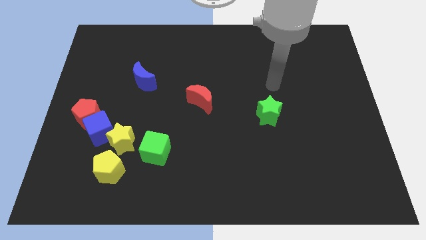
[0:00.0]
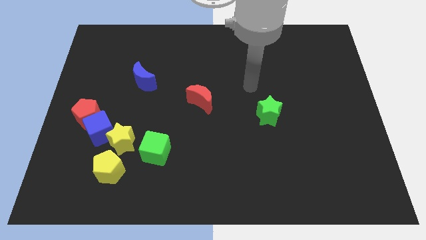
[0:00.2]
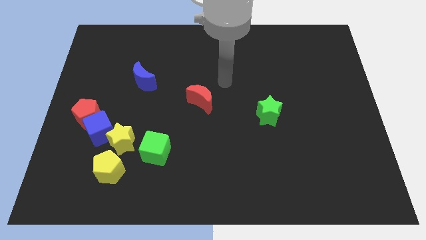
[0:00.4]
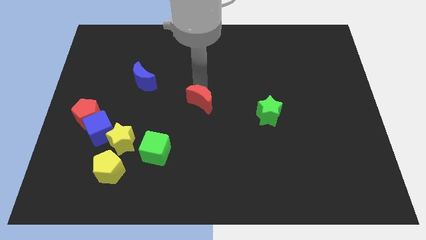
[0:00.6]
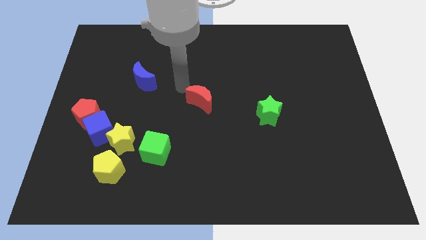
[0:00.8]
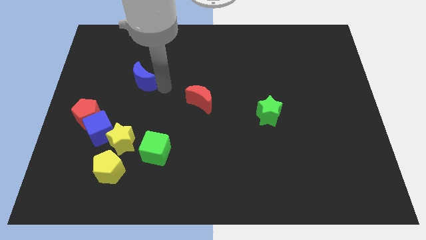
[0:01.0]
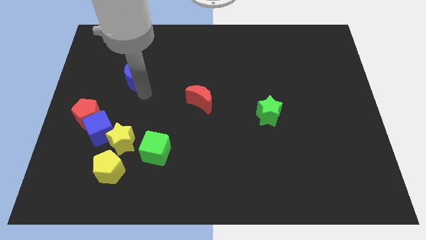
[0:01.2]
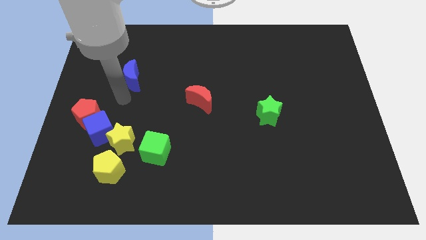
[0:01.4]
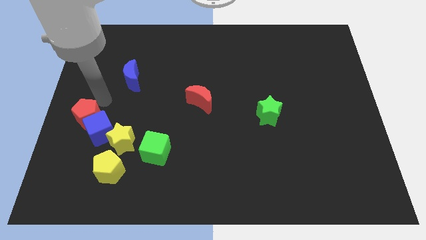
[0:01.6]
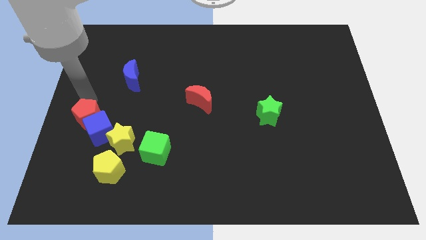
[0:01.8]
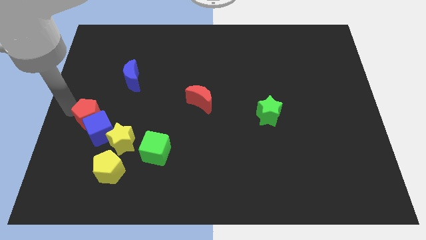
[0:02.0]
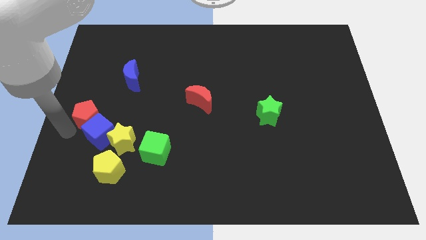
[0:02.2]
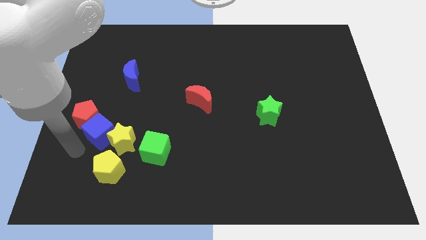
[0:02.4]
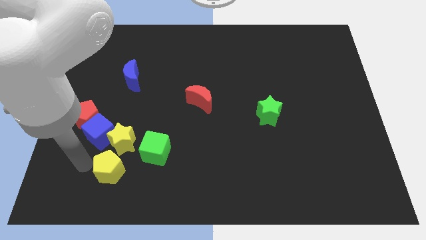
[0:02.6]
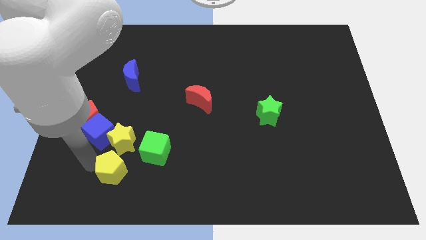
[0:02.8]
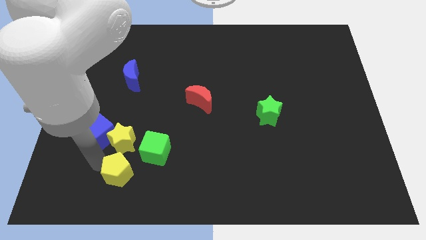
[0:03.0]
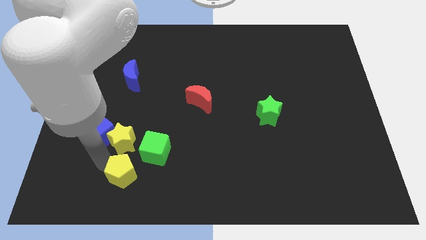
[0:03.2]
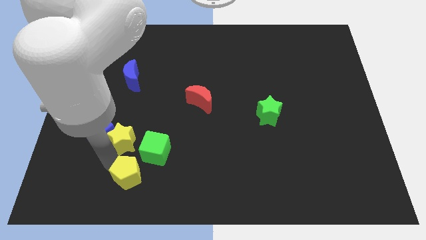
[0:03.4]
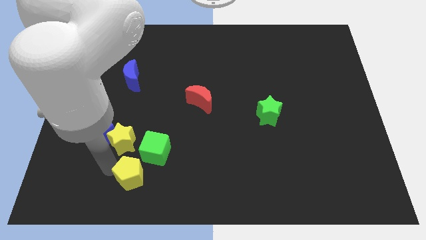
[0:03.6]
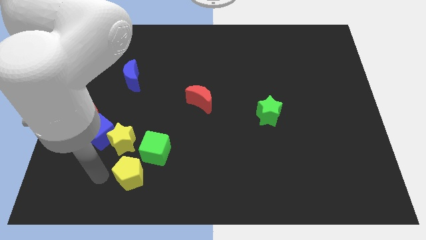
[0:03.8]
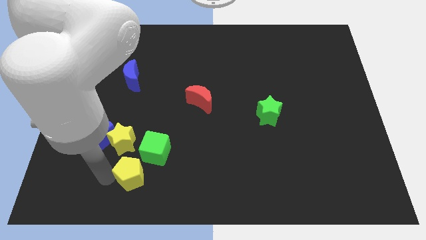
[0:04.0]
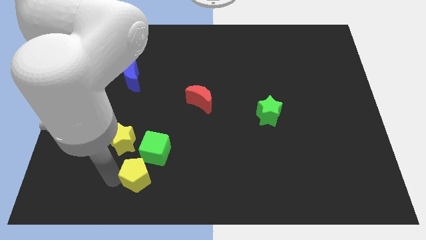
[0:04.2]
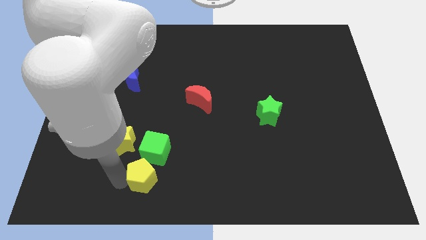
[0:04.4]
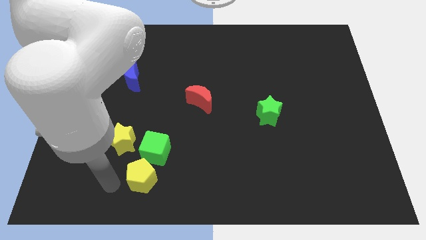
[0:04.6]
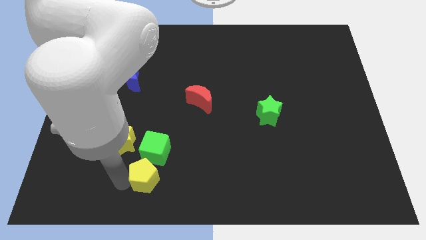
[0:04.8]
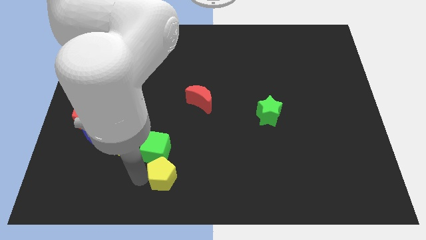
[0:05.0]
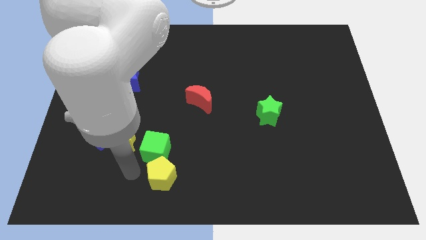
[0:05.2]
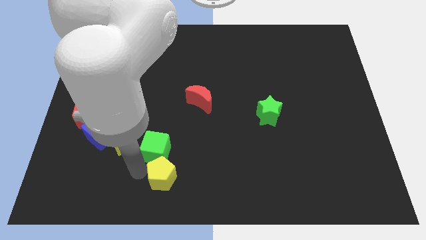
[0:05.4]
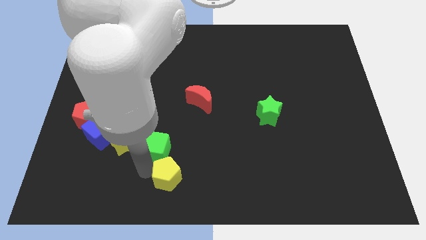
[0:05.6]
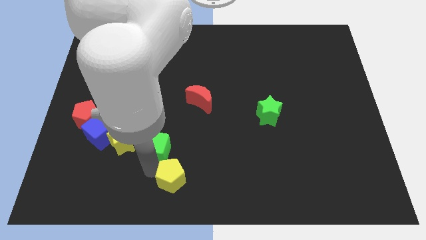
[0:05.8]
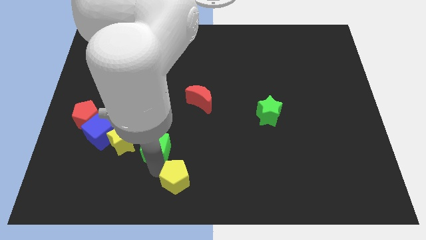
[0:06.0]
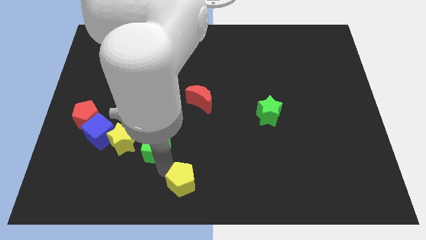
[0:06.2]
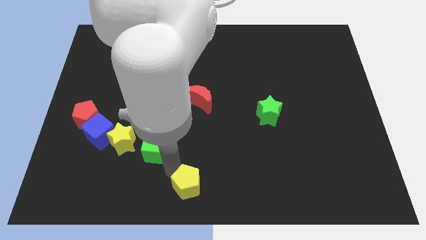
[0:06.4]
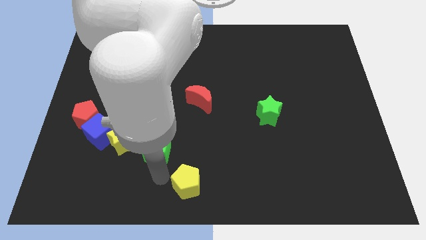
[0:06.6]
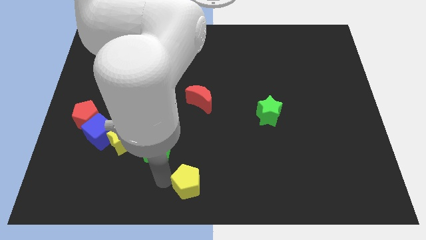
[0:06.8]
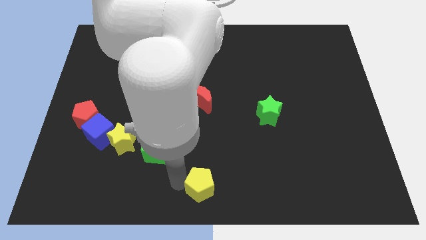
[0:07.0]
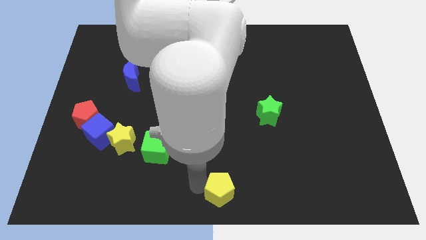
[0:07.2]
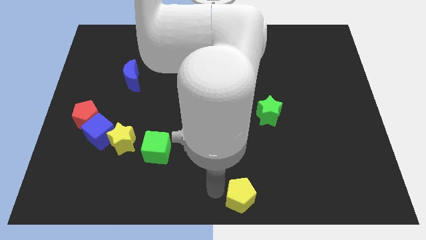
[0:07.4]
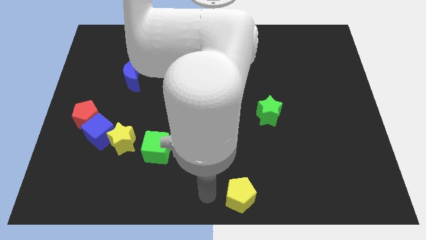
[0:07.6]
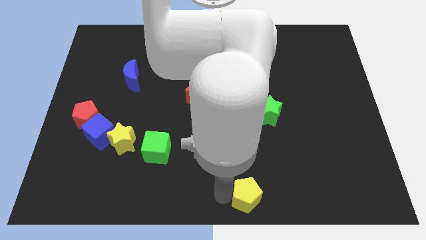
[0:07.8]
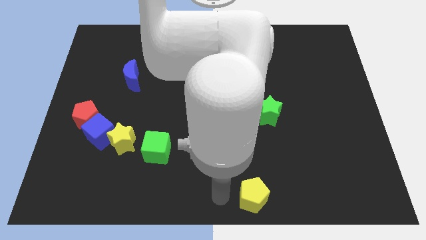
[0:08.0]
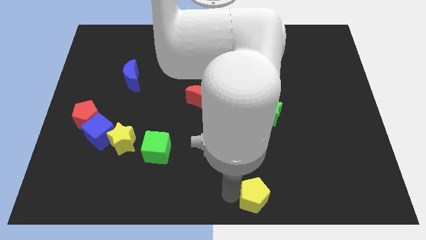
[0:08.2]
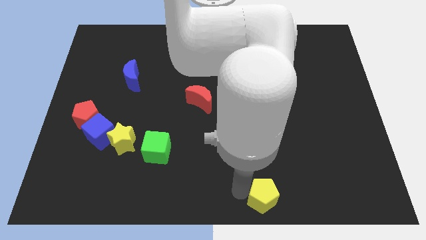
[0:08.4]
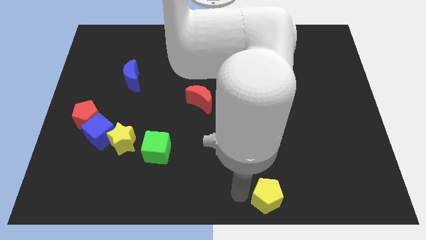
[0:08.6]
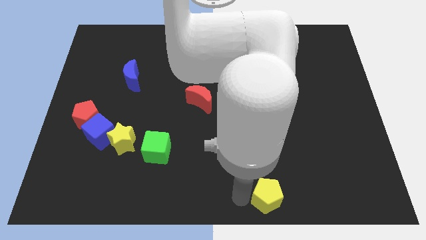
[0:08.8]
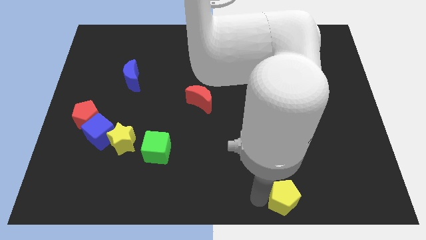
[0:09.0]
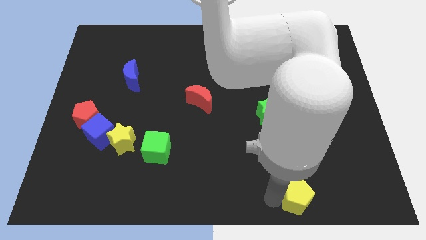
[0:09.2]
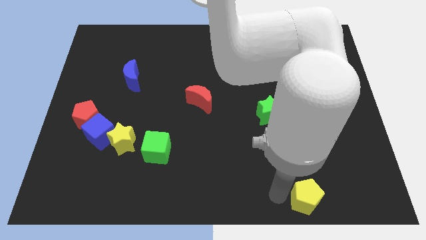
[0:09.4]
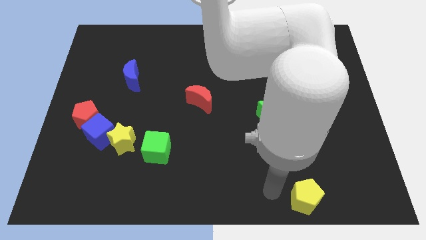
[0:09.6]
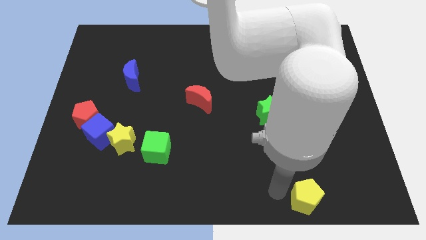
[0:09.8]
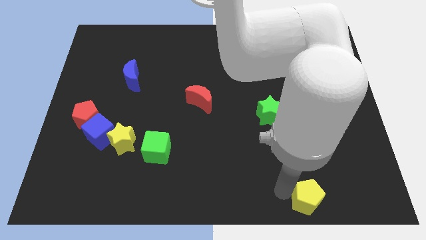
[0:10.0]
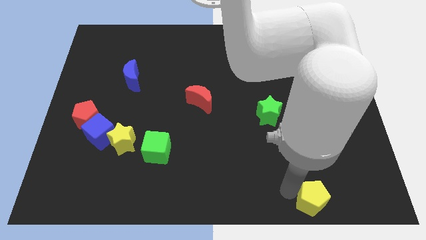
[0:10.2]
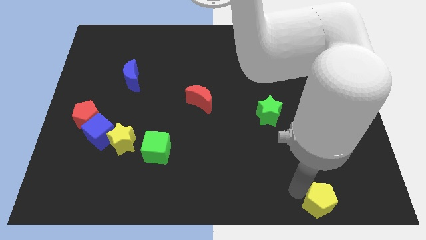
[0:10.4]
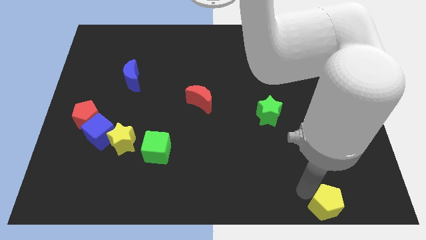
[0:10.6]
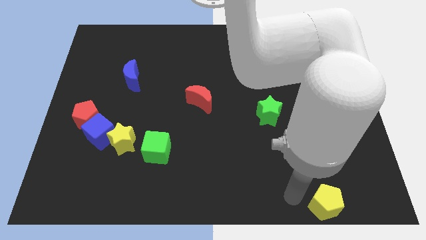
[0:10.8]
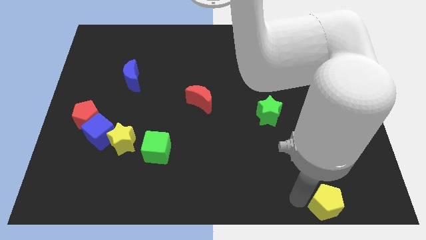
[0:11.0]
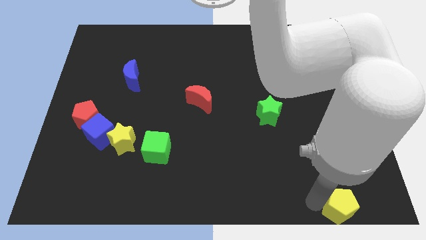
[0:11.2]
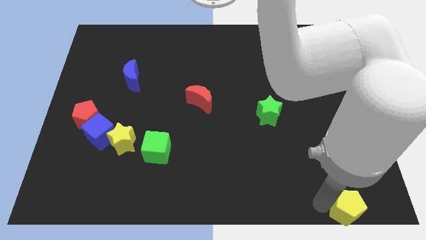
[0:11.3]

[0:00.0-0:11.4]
push the yellow pentagon to the bottom right corner

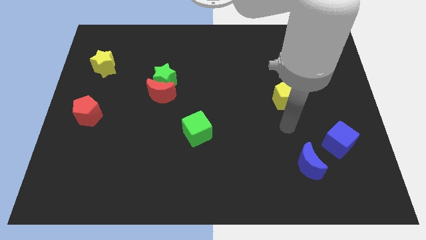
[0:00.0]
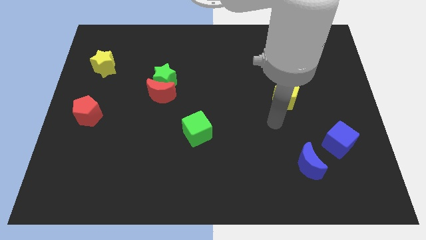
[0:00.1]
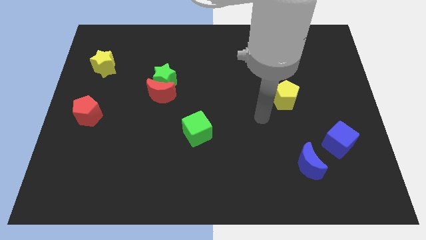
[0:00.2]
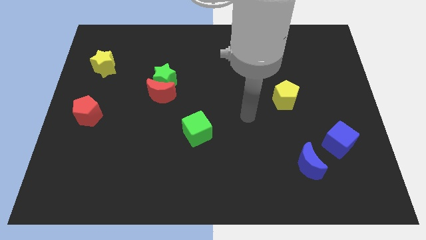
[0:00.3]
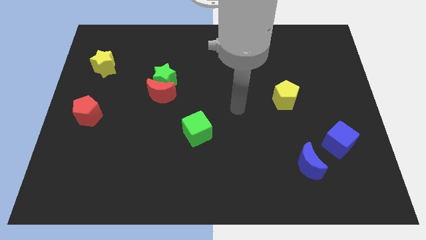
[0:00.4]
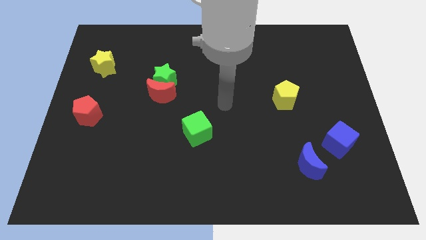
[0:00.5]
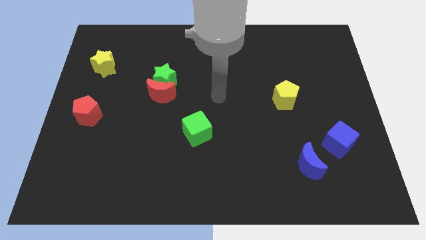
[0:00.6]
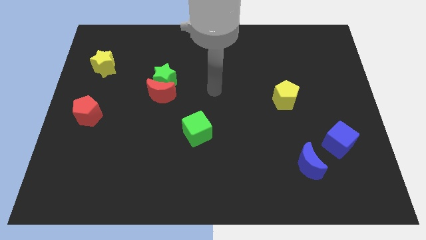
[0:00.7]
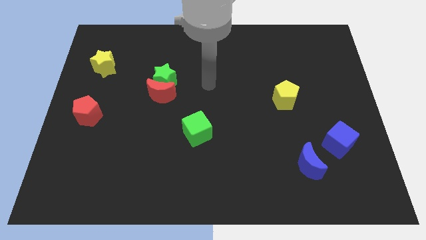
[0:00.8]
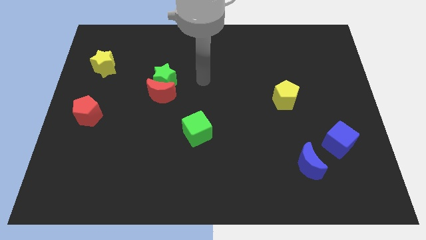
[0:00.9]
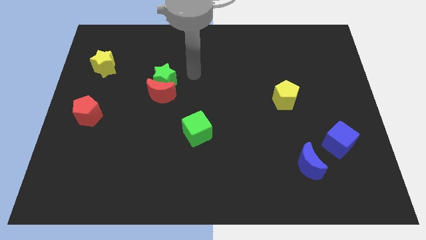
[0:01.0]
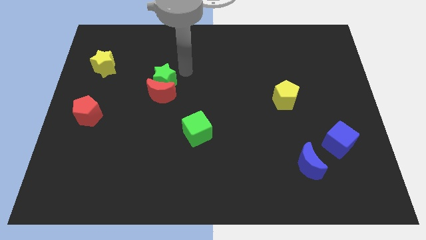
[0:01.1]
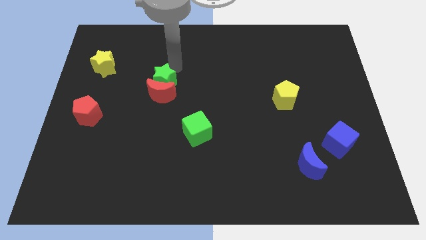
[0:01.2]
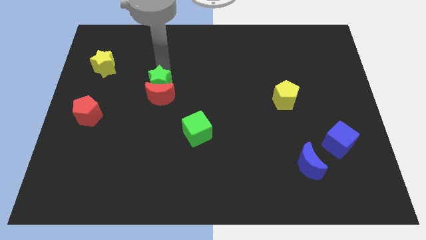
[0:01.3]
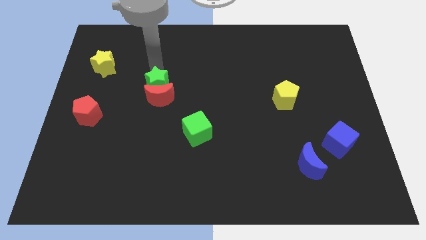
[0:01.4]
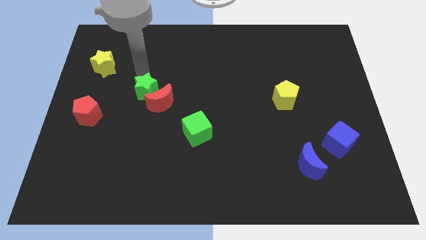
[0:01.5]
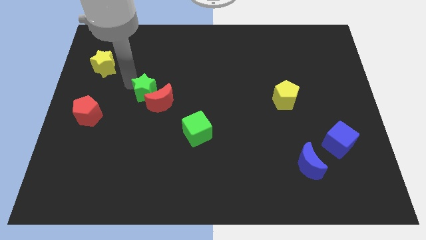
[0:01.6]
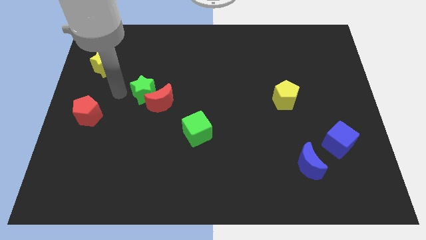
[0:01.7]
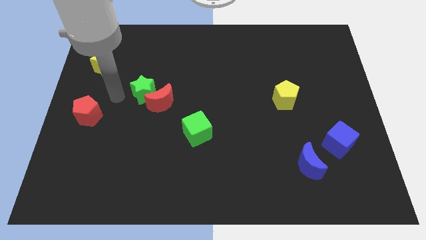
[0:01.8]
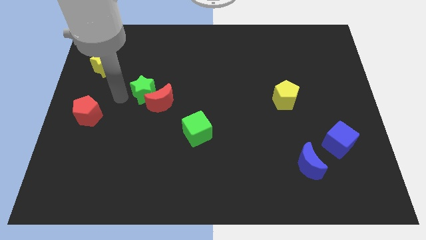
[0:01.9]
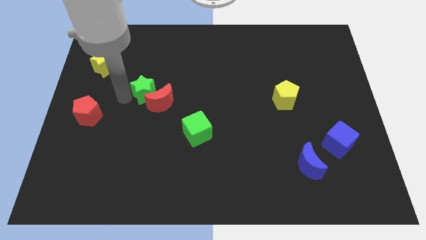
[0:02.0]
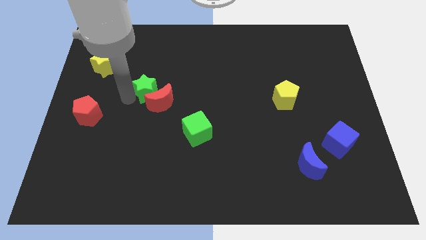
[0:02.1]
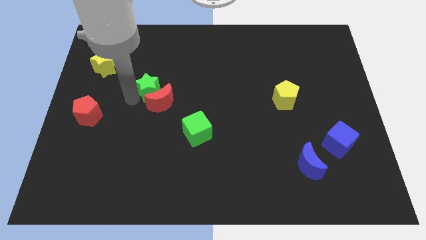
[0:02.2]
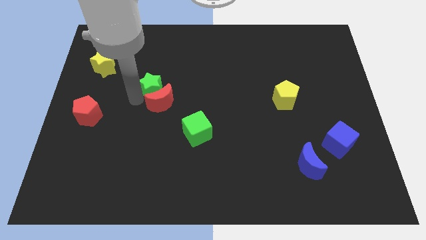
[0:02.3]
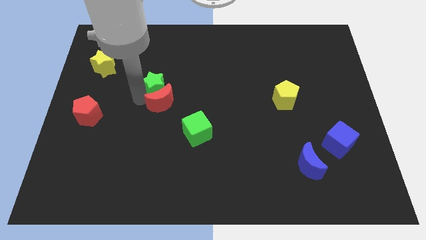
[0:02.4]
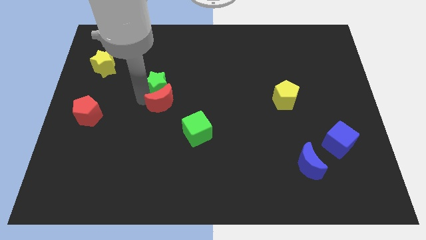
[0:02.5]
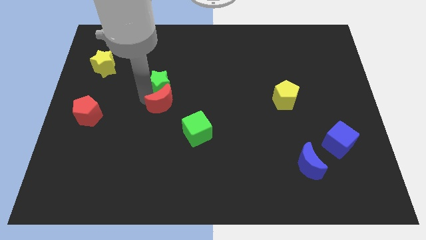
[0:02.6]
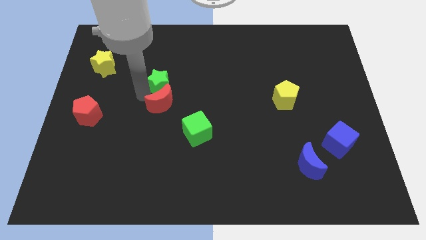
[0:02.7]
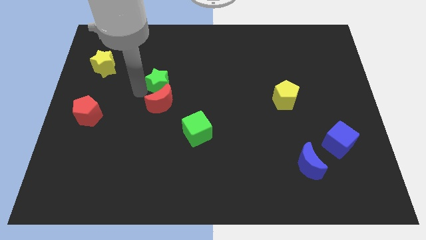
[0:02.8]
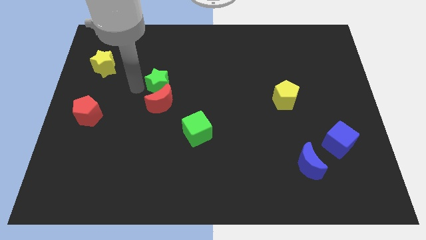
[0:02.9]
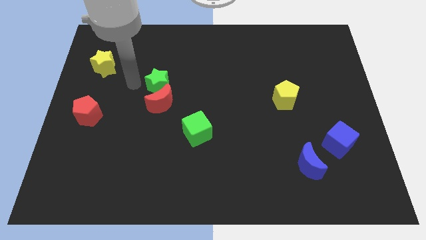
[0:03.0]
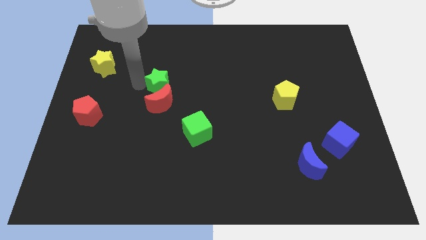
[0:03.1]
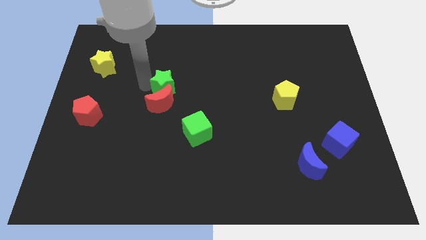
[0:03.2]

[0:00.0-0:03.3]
put the green star to the center of the board
